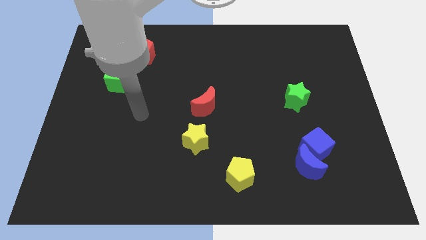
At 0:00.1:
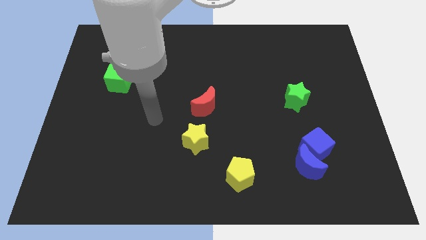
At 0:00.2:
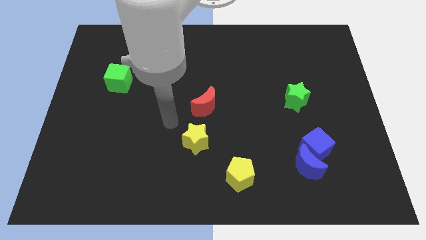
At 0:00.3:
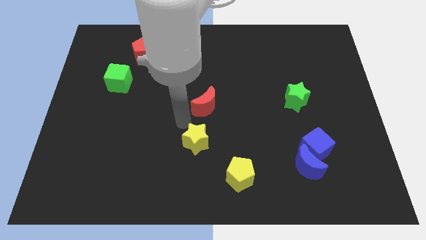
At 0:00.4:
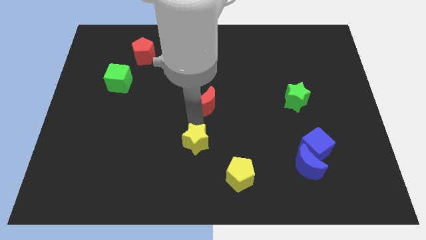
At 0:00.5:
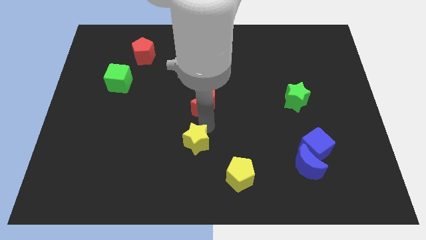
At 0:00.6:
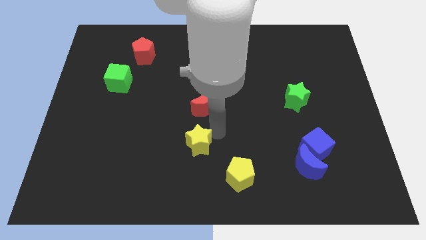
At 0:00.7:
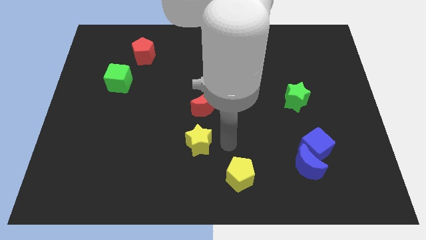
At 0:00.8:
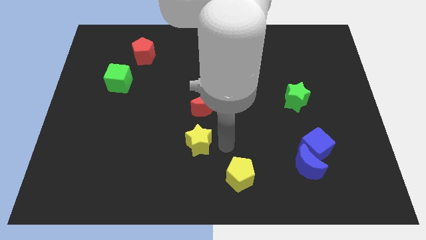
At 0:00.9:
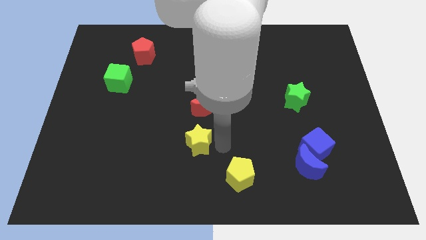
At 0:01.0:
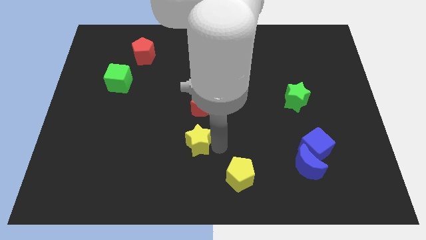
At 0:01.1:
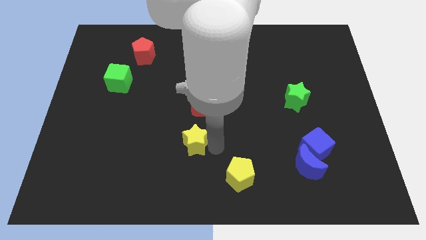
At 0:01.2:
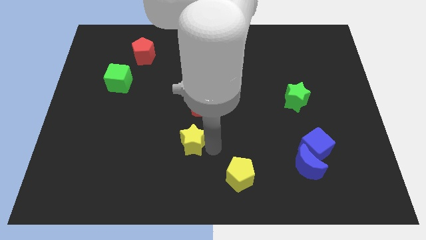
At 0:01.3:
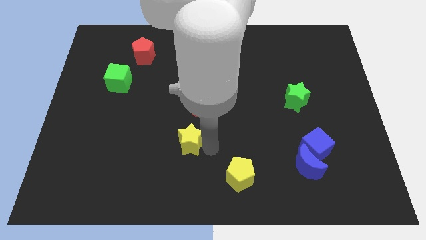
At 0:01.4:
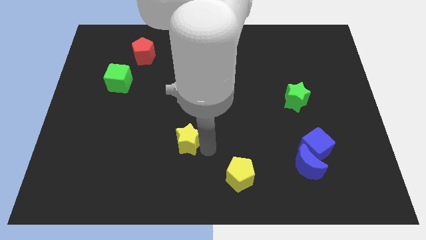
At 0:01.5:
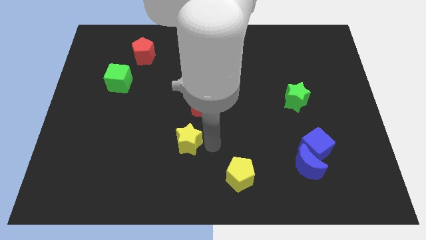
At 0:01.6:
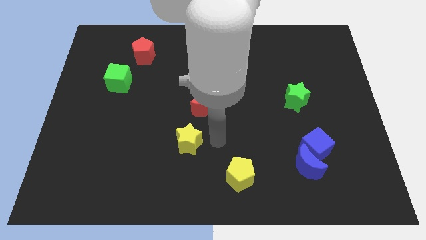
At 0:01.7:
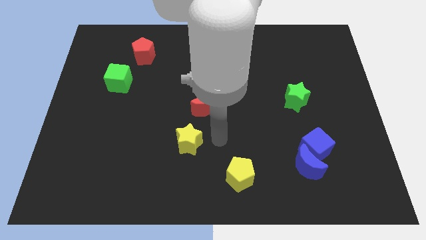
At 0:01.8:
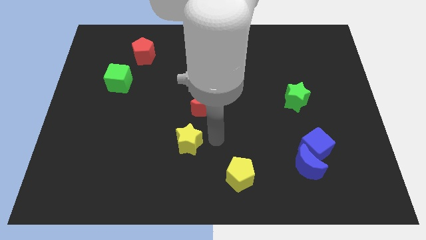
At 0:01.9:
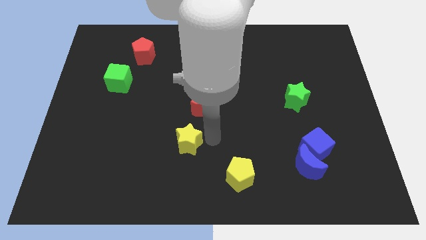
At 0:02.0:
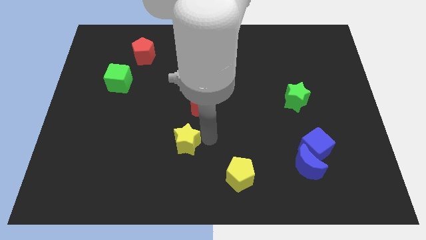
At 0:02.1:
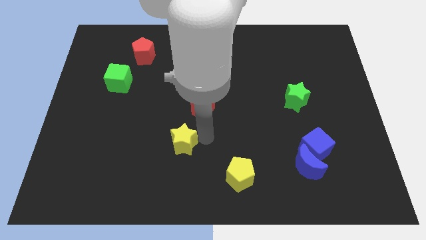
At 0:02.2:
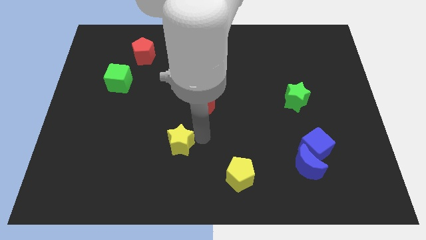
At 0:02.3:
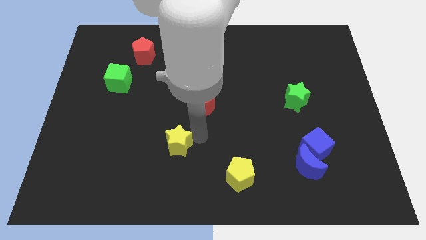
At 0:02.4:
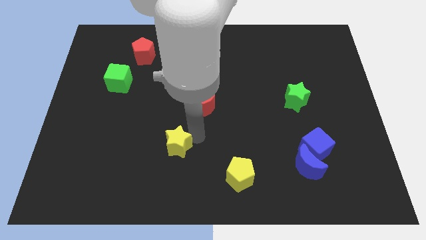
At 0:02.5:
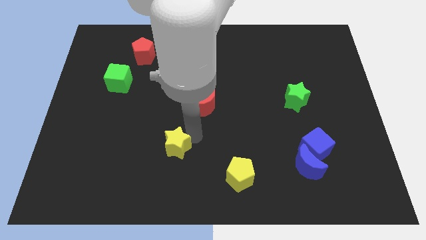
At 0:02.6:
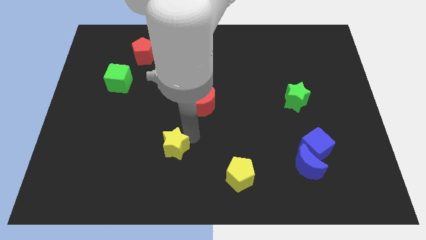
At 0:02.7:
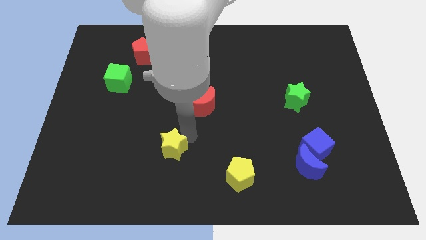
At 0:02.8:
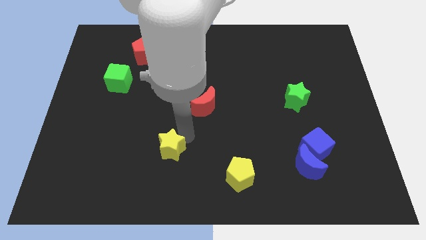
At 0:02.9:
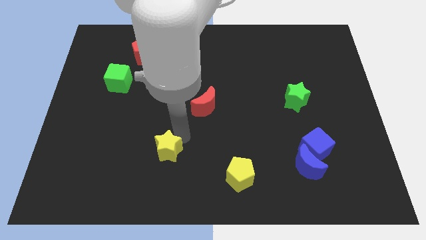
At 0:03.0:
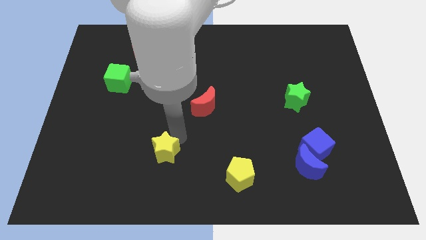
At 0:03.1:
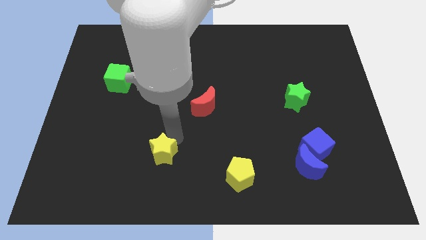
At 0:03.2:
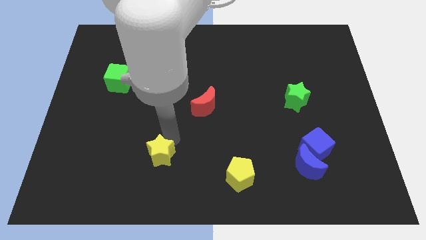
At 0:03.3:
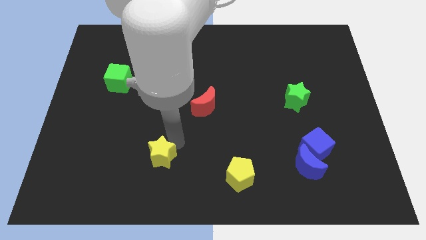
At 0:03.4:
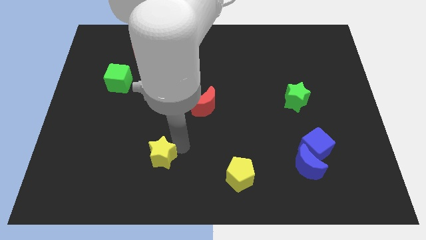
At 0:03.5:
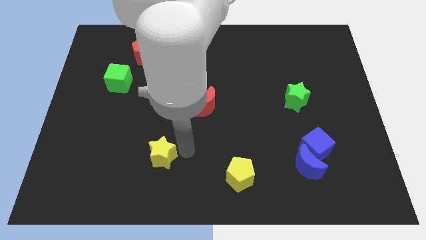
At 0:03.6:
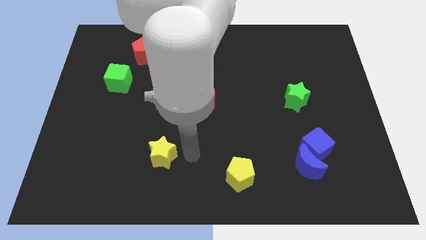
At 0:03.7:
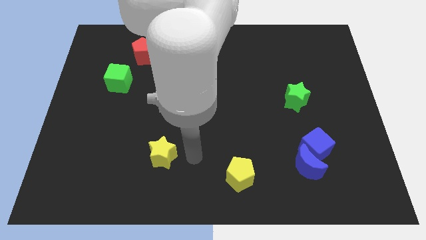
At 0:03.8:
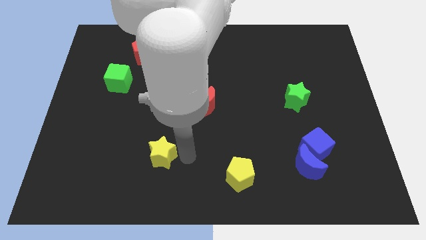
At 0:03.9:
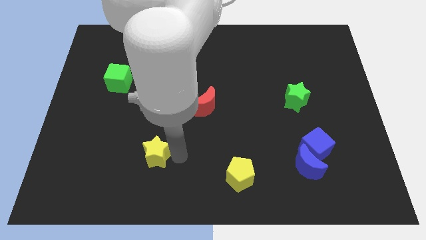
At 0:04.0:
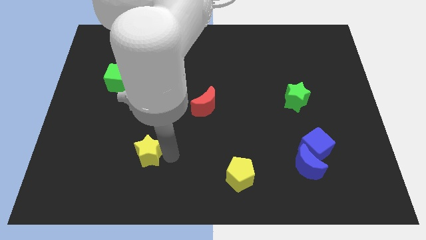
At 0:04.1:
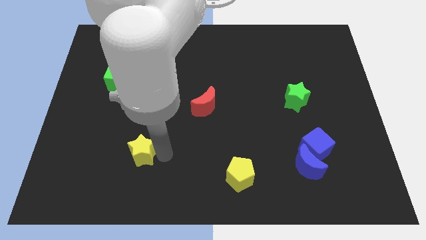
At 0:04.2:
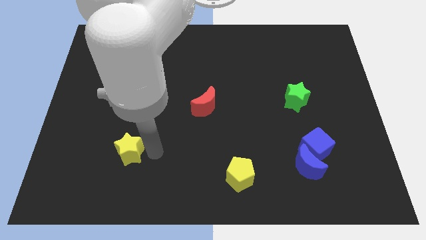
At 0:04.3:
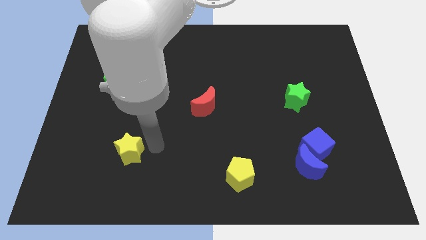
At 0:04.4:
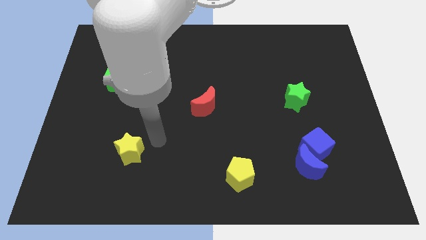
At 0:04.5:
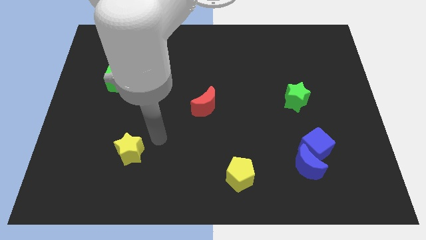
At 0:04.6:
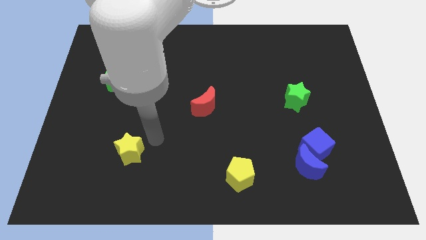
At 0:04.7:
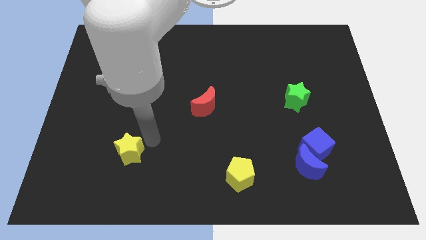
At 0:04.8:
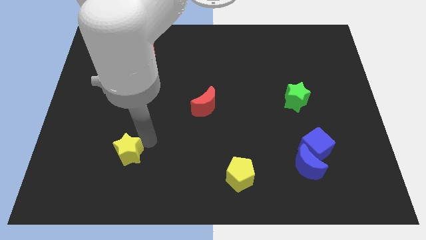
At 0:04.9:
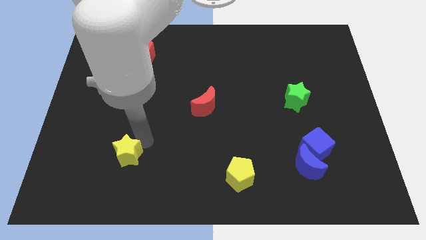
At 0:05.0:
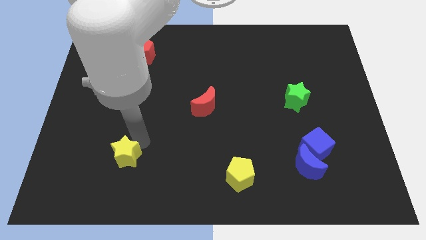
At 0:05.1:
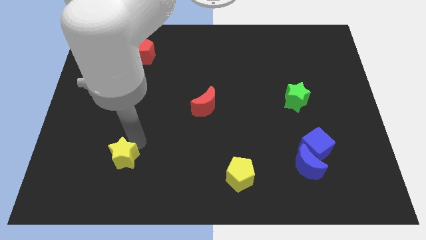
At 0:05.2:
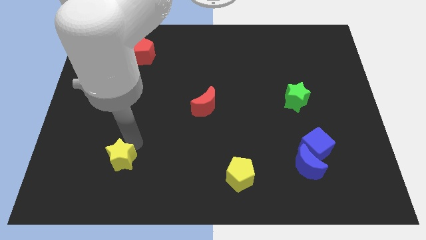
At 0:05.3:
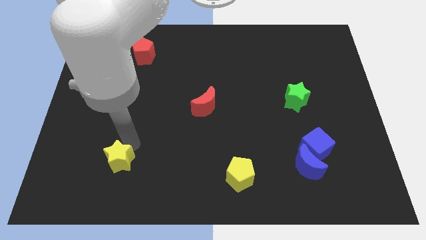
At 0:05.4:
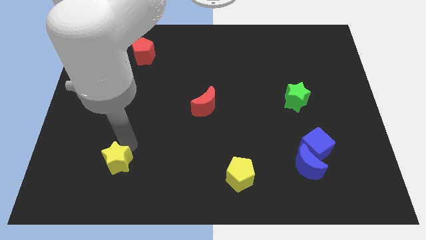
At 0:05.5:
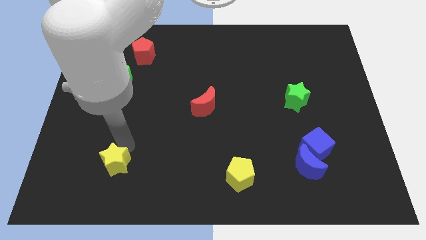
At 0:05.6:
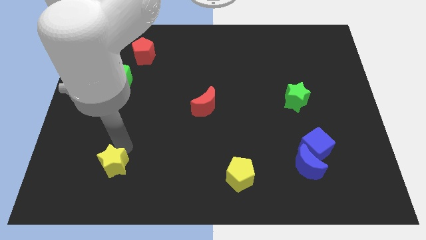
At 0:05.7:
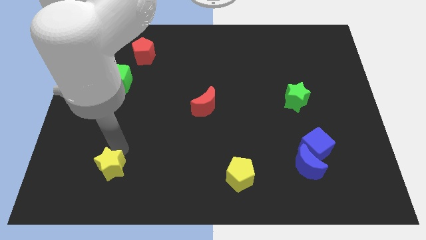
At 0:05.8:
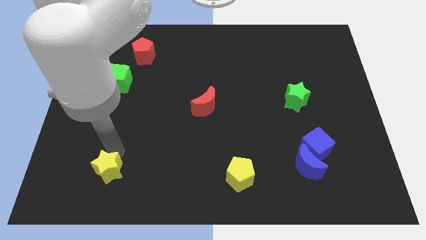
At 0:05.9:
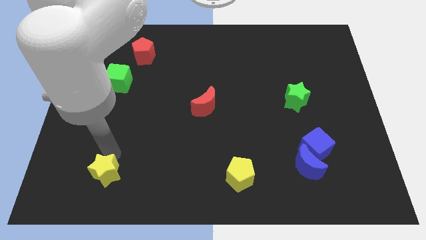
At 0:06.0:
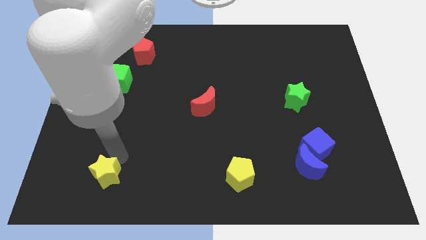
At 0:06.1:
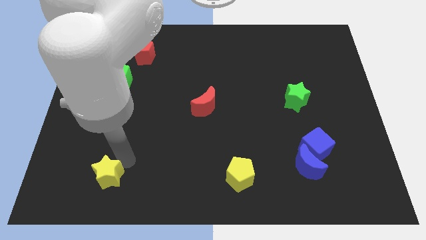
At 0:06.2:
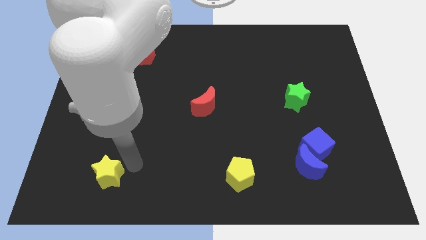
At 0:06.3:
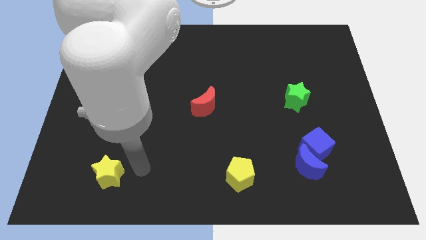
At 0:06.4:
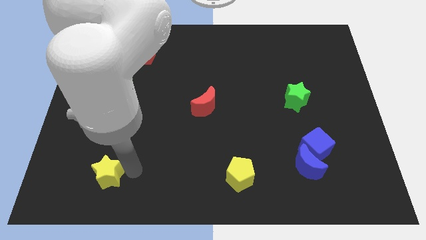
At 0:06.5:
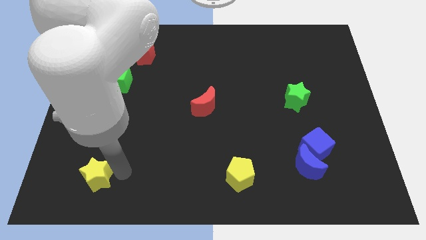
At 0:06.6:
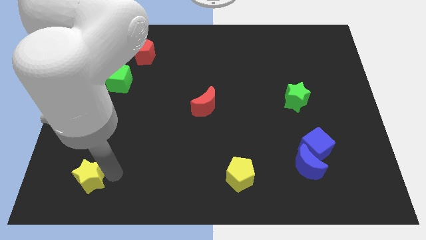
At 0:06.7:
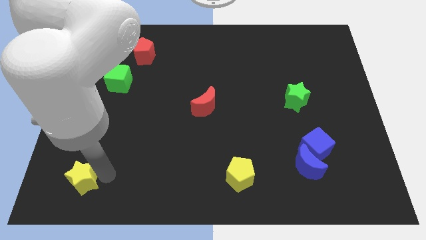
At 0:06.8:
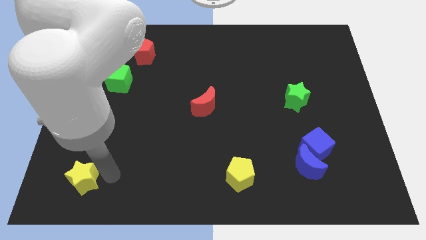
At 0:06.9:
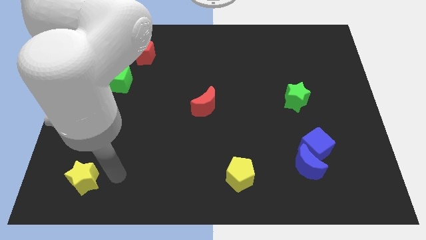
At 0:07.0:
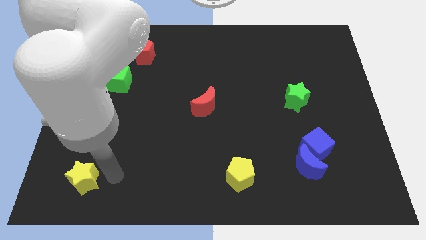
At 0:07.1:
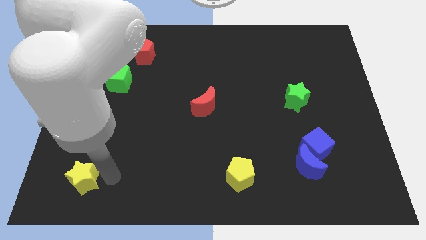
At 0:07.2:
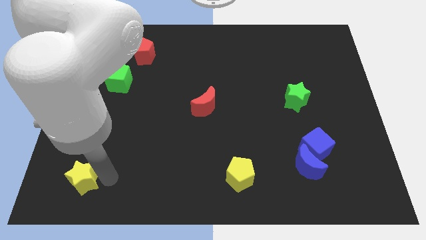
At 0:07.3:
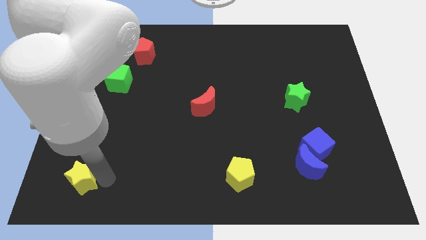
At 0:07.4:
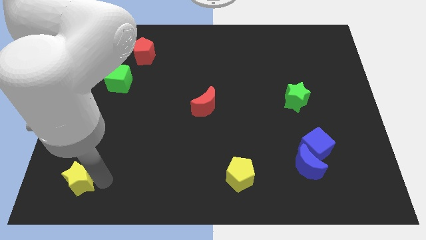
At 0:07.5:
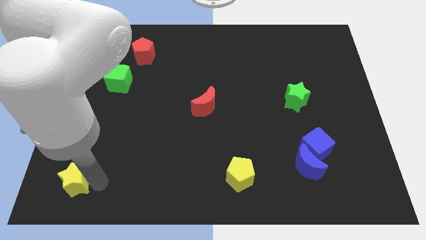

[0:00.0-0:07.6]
slide the yellow star to the lower left corner
